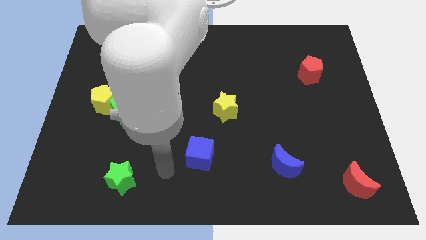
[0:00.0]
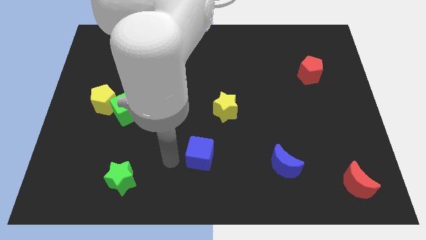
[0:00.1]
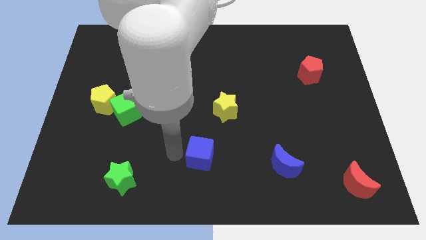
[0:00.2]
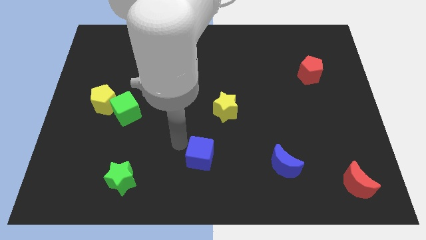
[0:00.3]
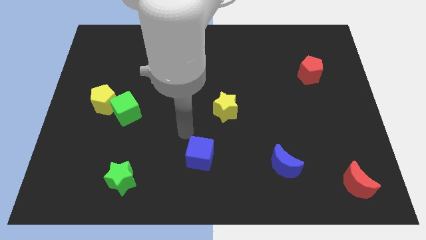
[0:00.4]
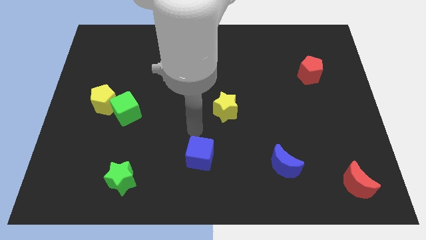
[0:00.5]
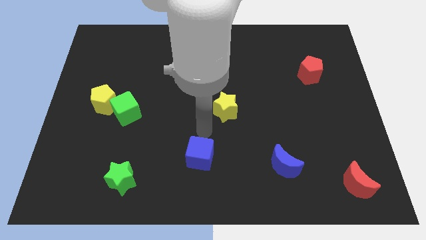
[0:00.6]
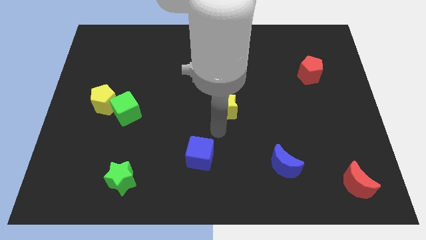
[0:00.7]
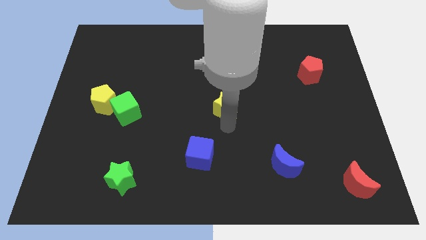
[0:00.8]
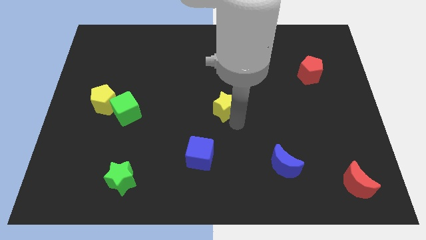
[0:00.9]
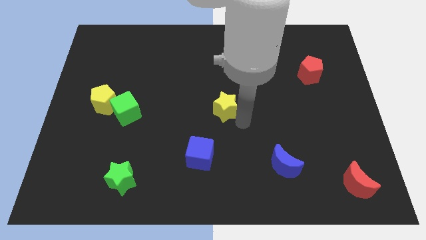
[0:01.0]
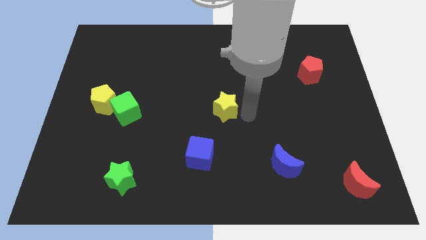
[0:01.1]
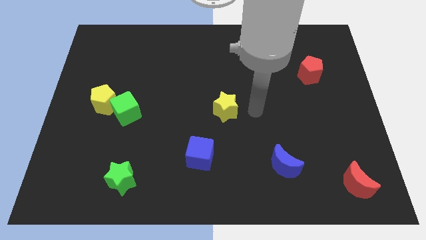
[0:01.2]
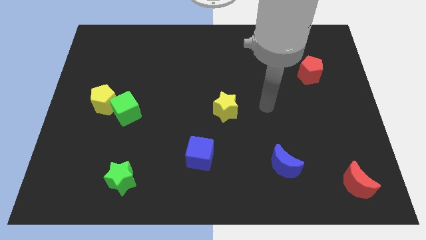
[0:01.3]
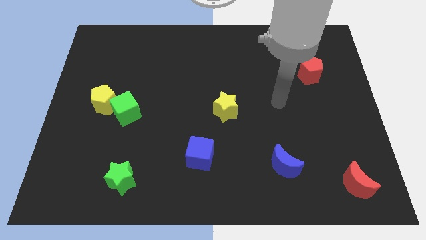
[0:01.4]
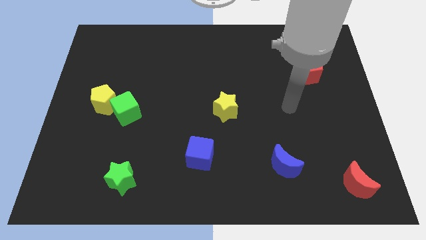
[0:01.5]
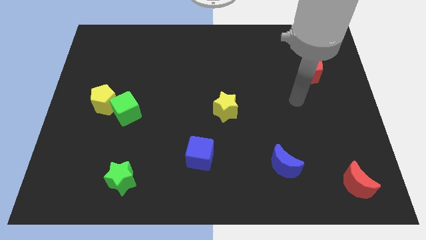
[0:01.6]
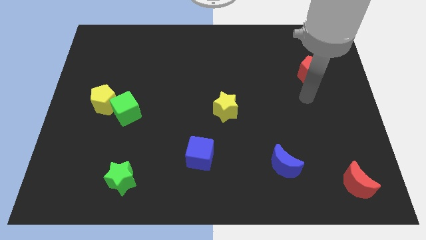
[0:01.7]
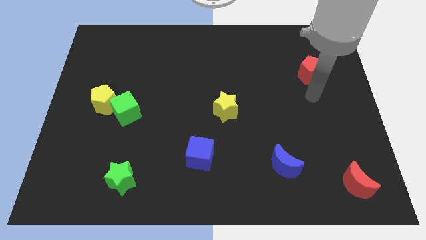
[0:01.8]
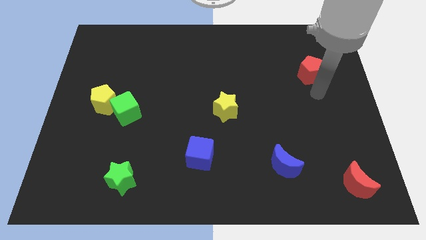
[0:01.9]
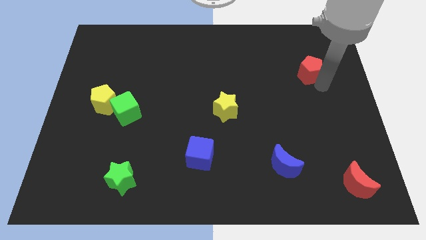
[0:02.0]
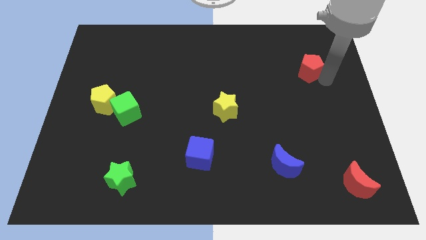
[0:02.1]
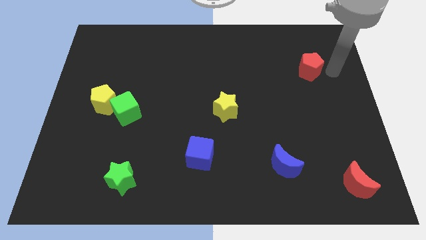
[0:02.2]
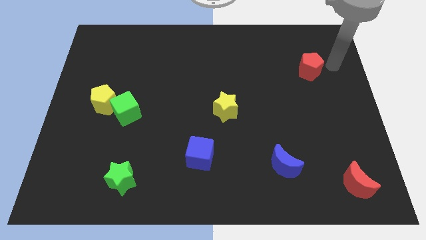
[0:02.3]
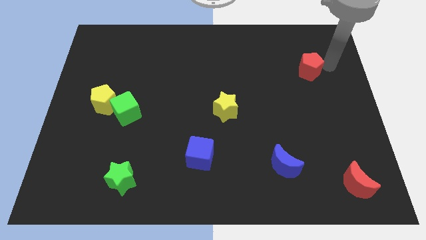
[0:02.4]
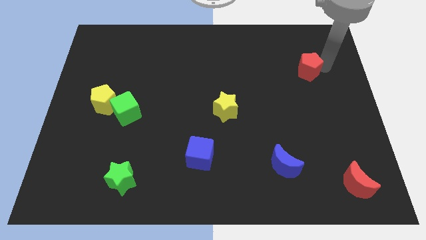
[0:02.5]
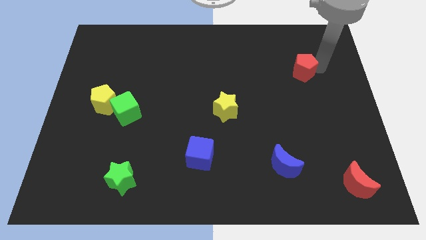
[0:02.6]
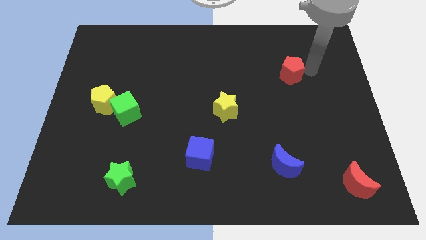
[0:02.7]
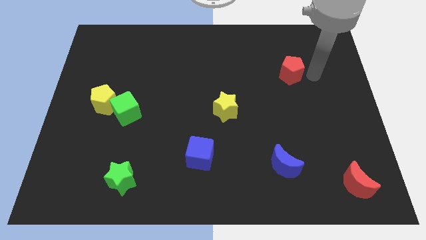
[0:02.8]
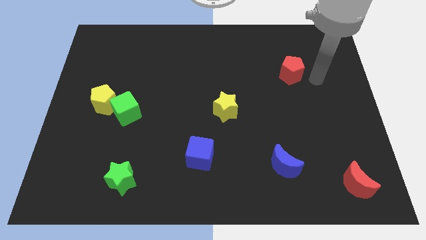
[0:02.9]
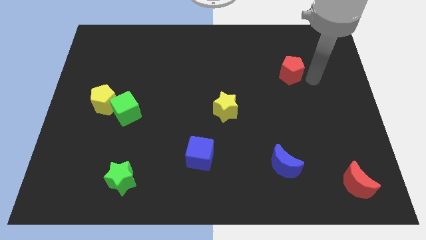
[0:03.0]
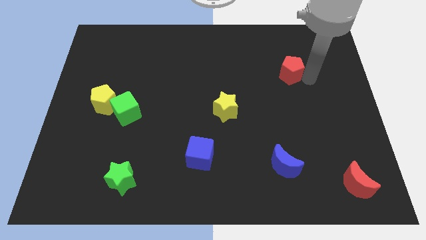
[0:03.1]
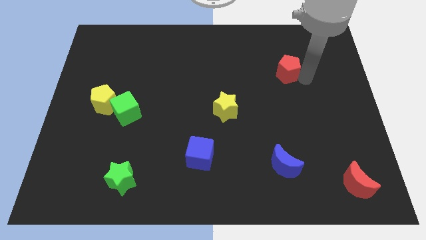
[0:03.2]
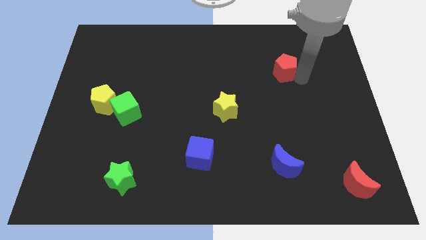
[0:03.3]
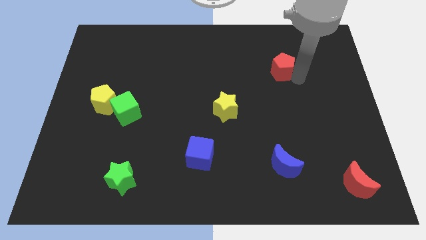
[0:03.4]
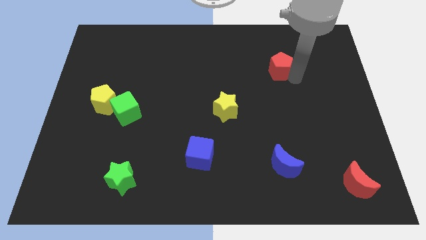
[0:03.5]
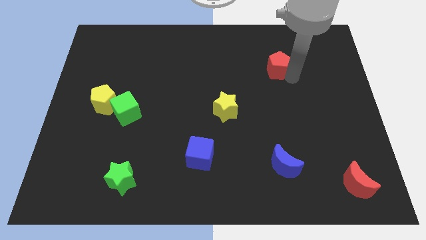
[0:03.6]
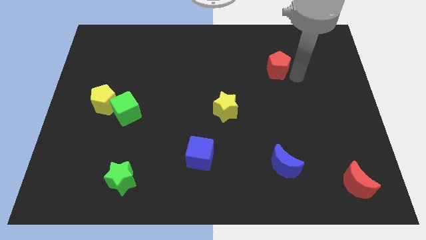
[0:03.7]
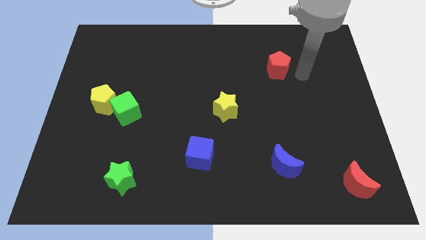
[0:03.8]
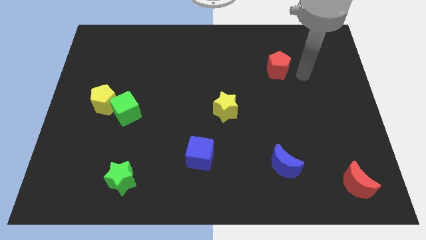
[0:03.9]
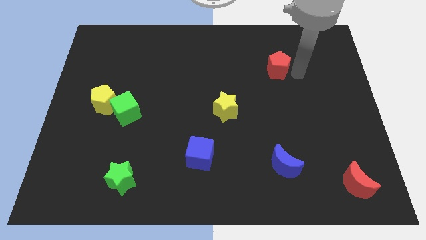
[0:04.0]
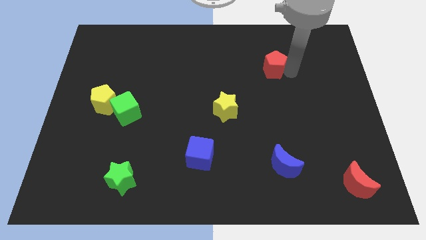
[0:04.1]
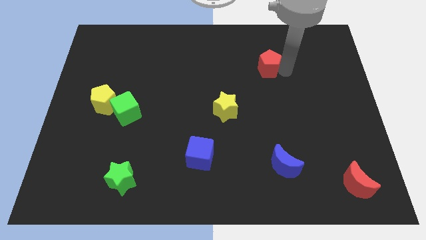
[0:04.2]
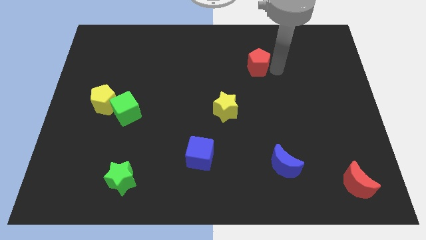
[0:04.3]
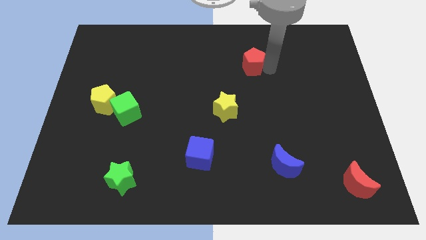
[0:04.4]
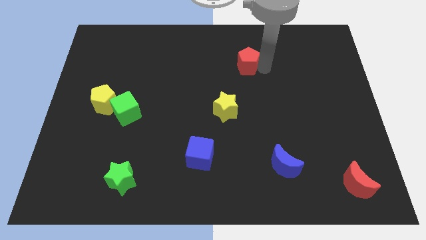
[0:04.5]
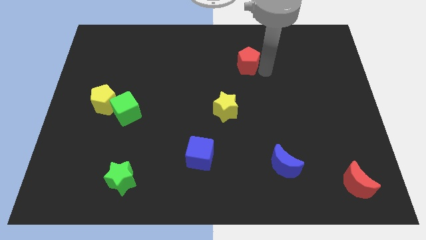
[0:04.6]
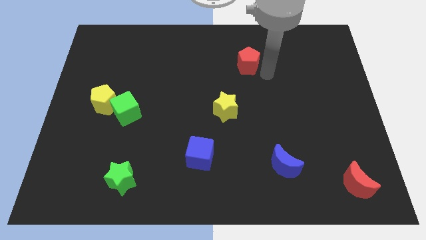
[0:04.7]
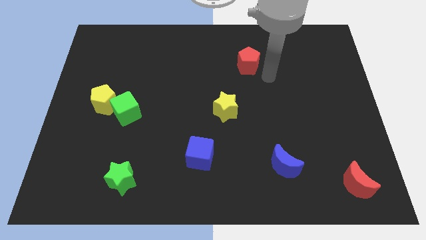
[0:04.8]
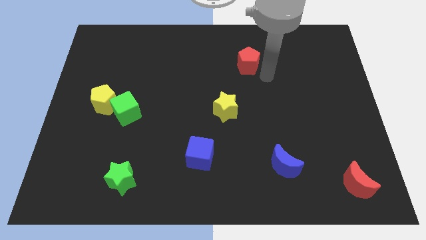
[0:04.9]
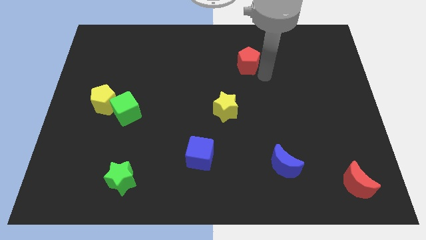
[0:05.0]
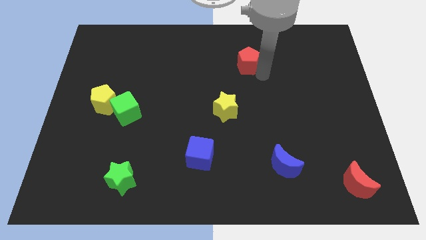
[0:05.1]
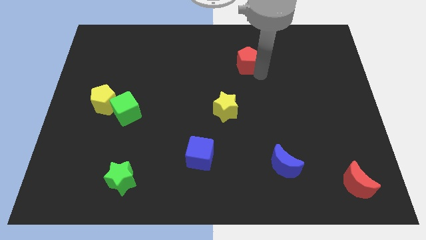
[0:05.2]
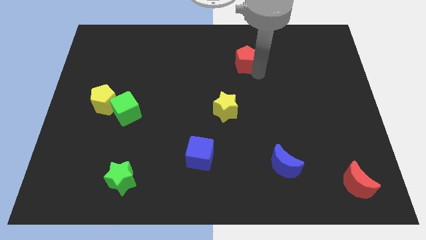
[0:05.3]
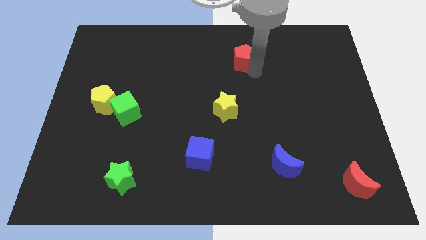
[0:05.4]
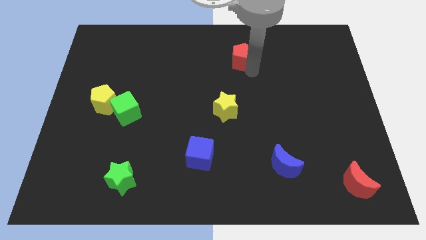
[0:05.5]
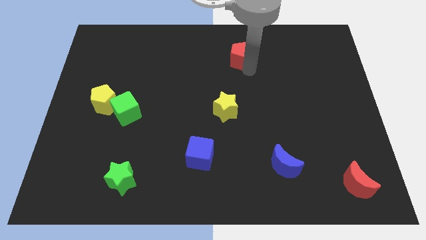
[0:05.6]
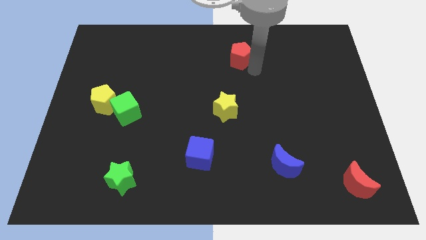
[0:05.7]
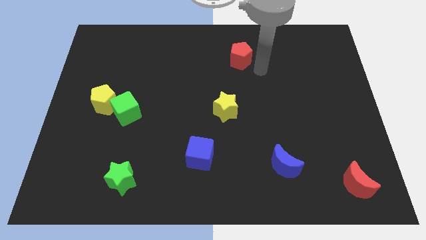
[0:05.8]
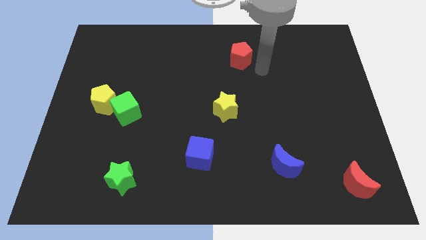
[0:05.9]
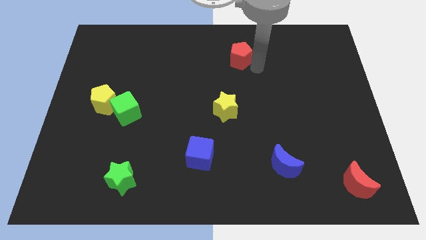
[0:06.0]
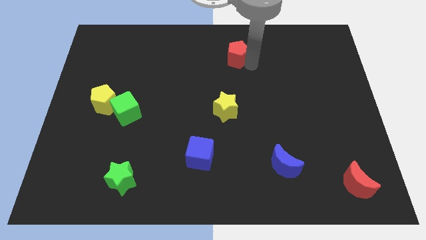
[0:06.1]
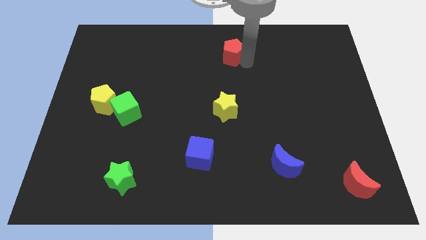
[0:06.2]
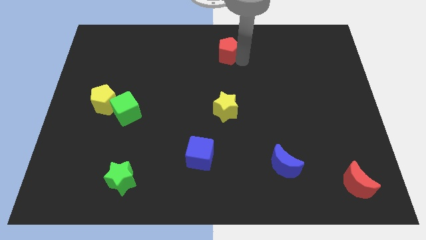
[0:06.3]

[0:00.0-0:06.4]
move the red pentagon to the top
